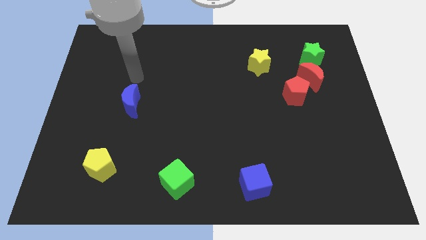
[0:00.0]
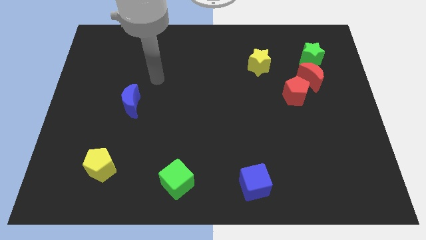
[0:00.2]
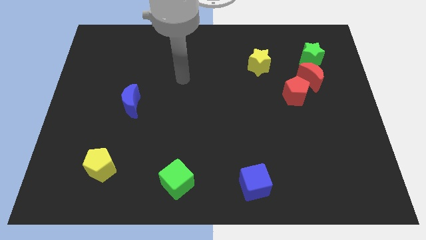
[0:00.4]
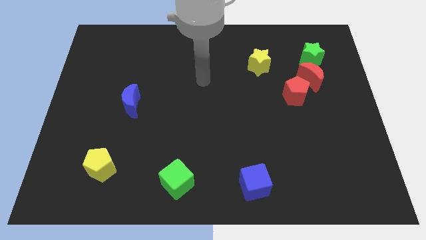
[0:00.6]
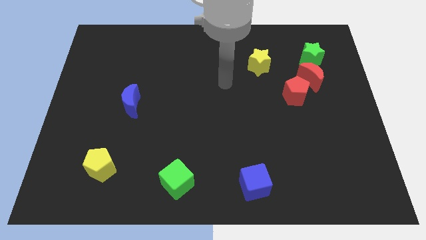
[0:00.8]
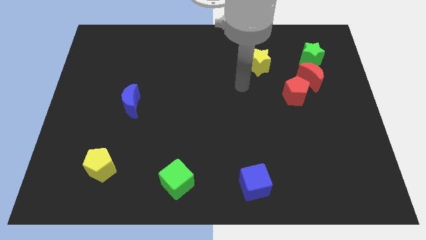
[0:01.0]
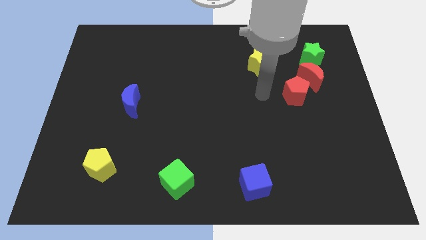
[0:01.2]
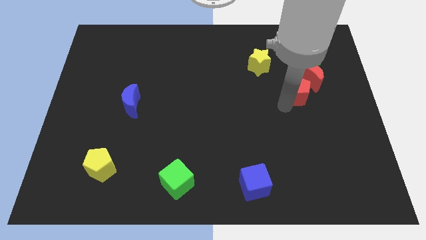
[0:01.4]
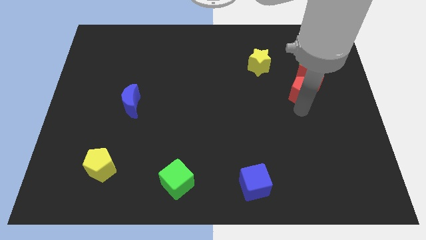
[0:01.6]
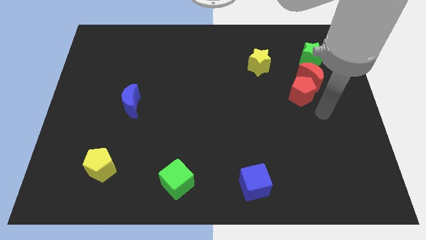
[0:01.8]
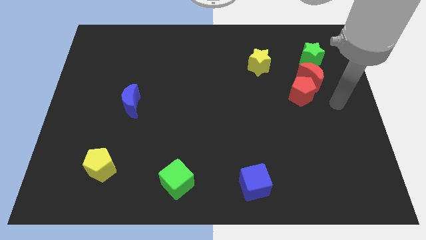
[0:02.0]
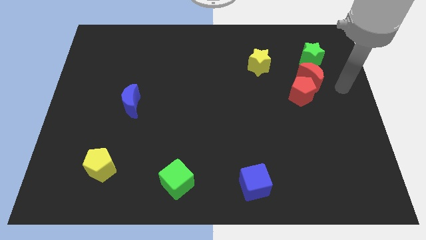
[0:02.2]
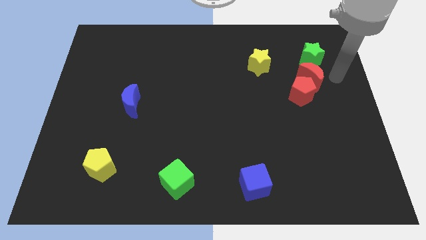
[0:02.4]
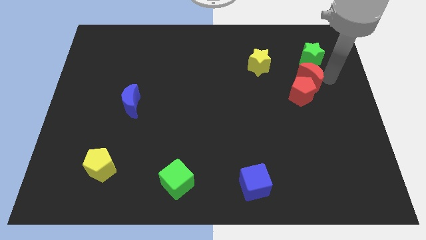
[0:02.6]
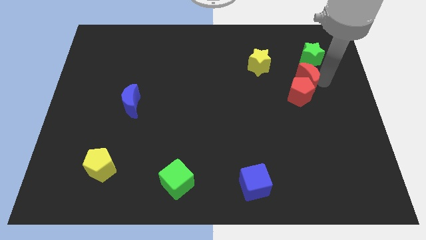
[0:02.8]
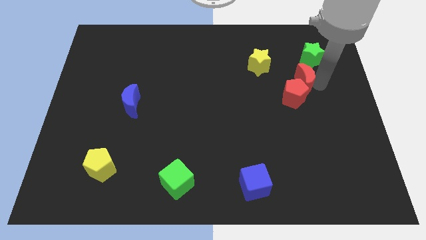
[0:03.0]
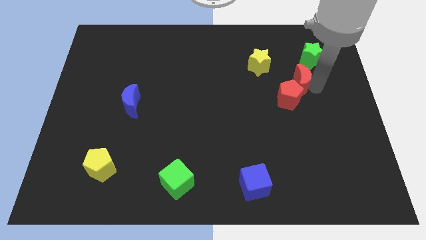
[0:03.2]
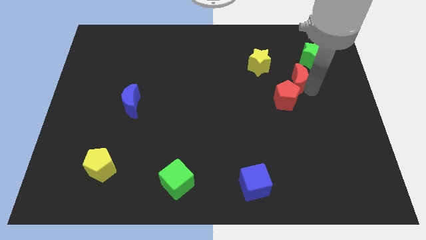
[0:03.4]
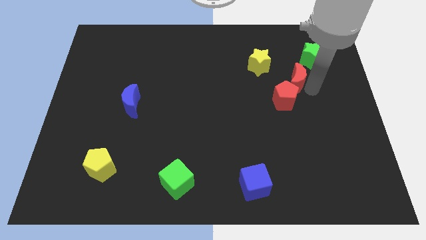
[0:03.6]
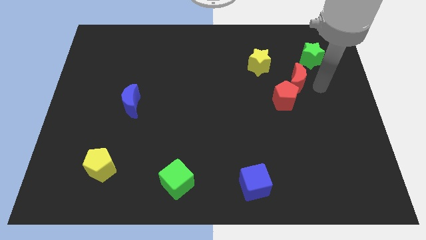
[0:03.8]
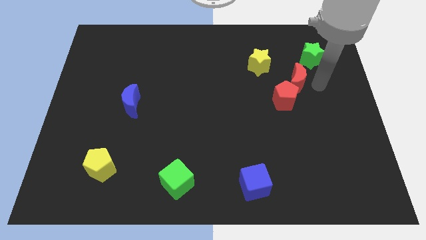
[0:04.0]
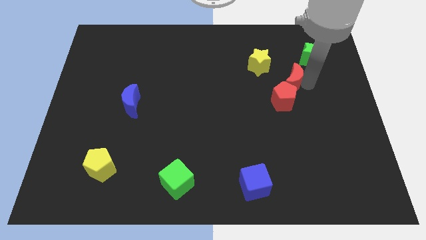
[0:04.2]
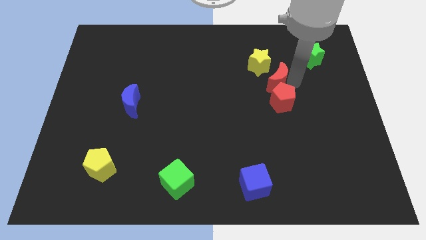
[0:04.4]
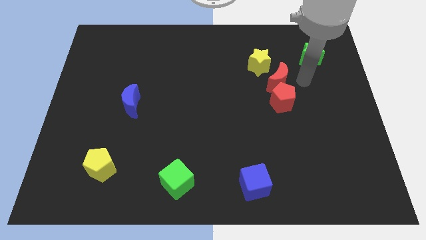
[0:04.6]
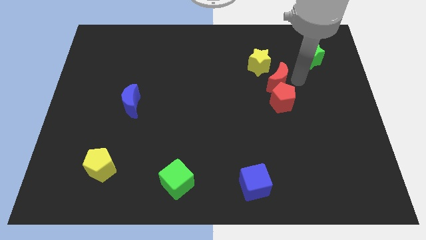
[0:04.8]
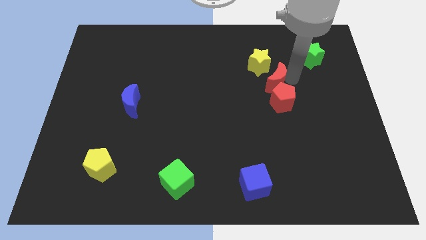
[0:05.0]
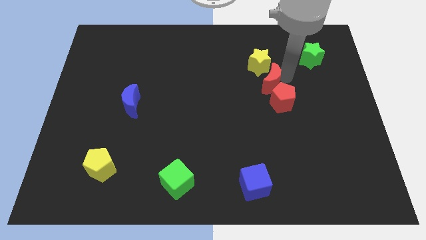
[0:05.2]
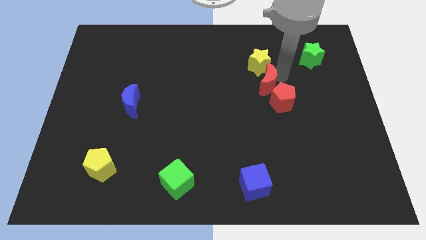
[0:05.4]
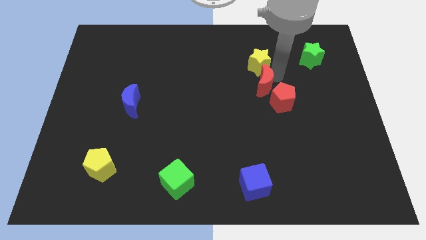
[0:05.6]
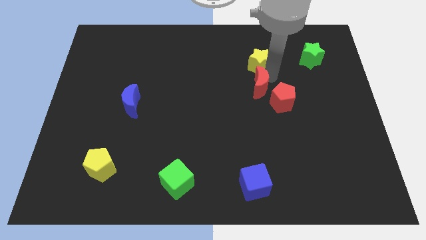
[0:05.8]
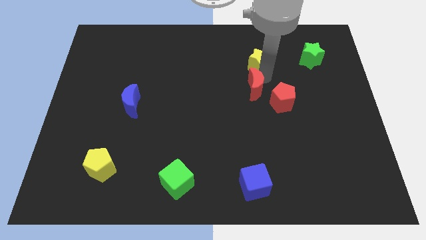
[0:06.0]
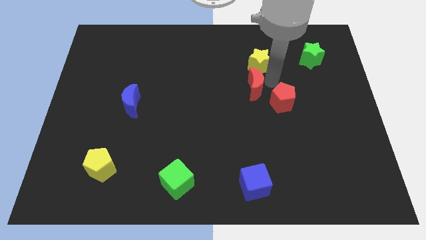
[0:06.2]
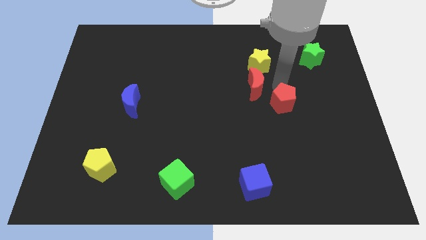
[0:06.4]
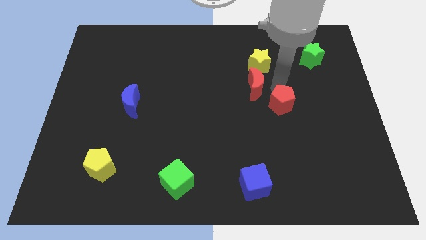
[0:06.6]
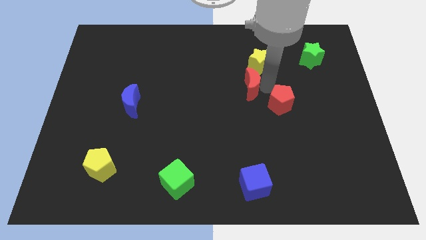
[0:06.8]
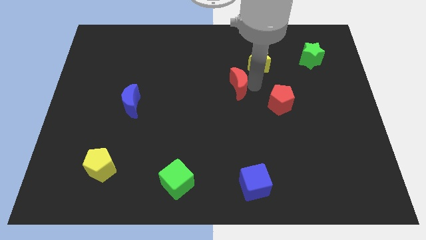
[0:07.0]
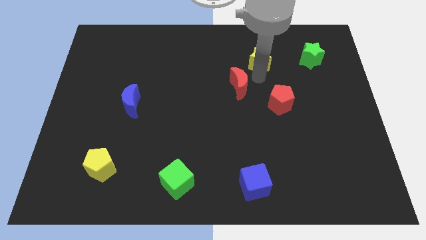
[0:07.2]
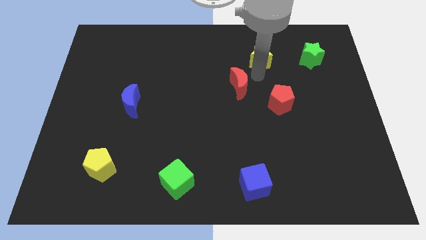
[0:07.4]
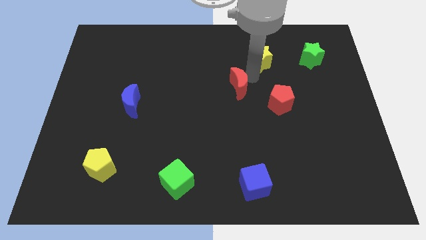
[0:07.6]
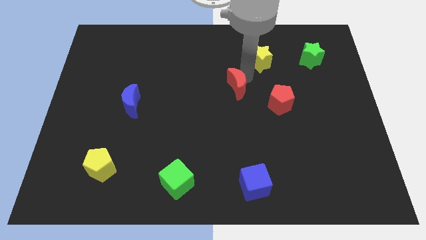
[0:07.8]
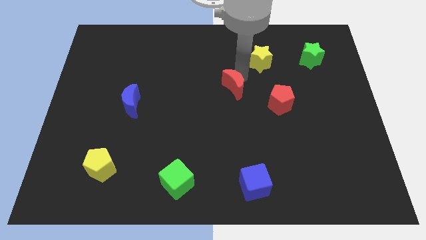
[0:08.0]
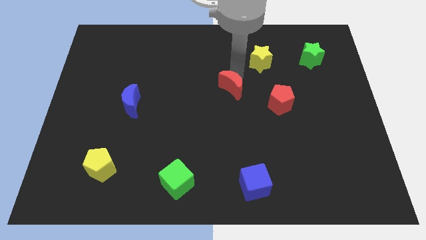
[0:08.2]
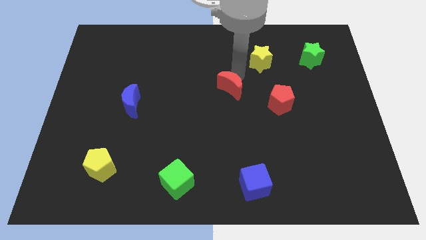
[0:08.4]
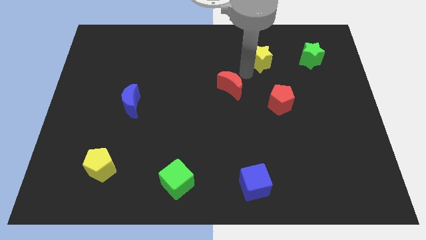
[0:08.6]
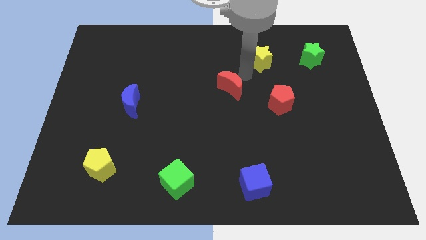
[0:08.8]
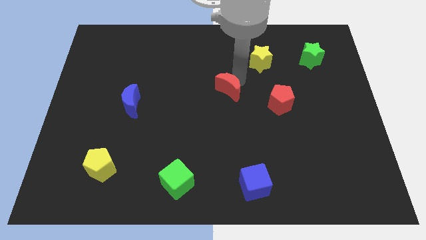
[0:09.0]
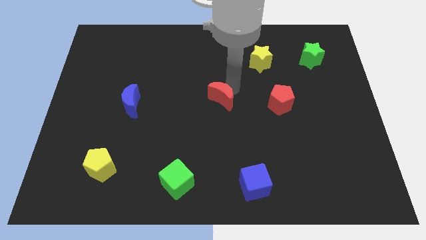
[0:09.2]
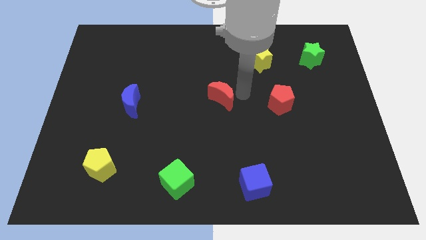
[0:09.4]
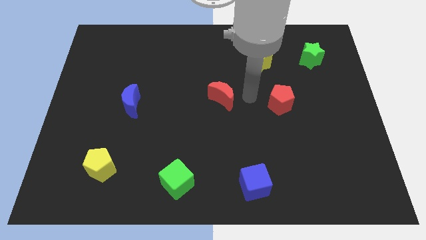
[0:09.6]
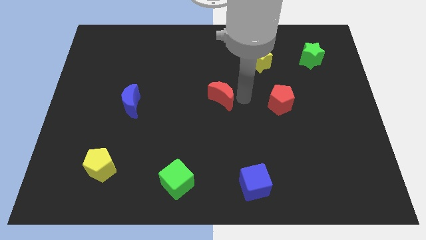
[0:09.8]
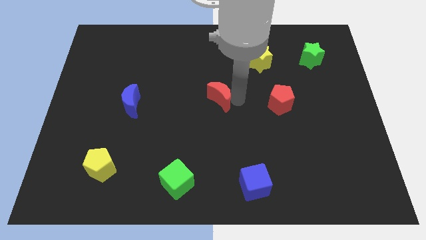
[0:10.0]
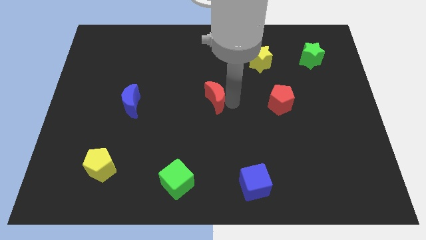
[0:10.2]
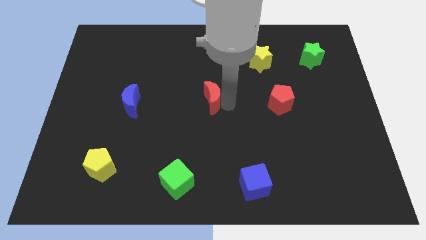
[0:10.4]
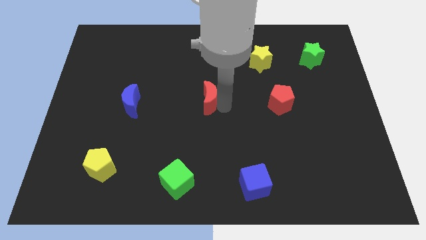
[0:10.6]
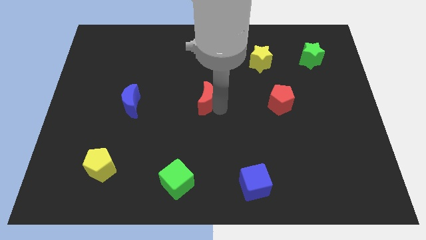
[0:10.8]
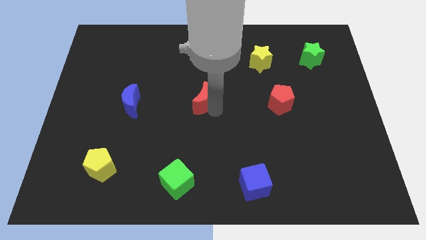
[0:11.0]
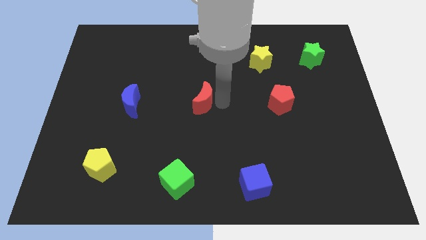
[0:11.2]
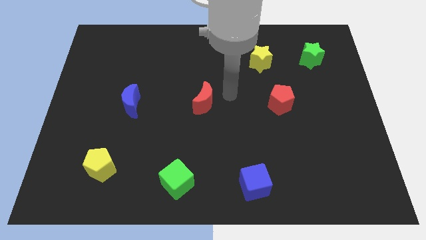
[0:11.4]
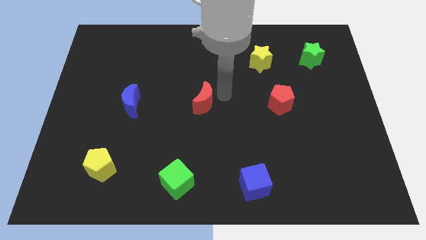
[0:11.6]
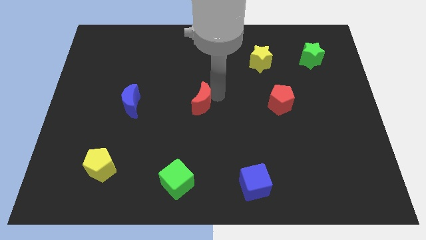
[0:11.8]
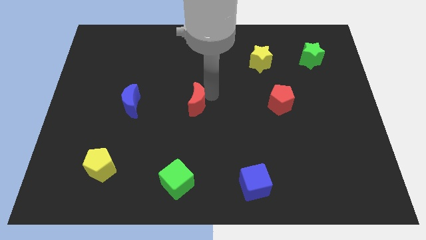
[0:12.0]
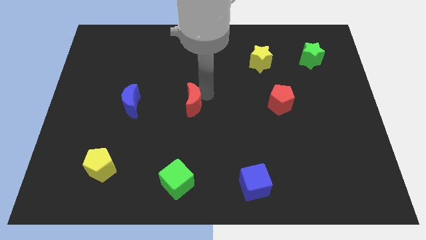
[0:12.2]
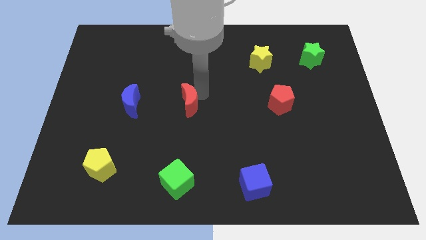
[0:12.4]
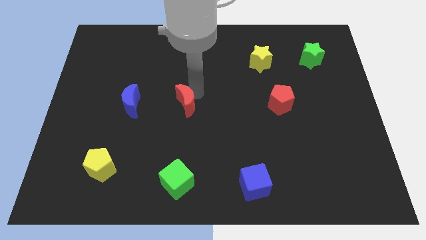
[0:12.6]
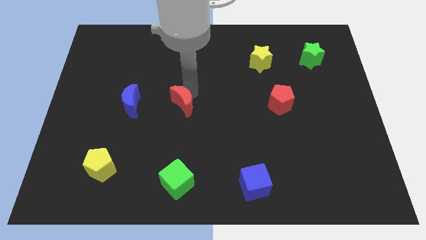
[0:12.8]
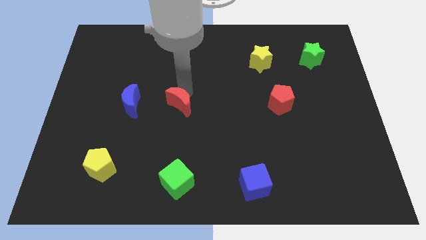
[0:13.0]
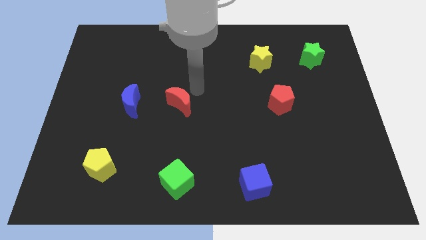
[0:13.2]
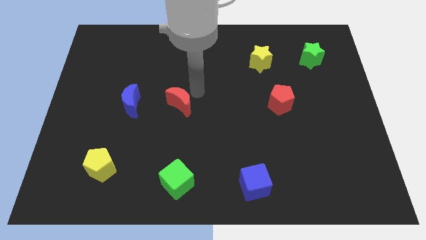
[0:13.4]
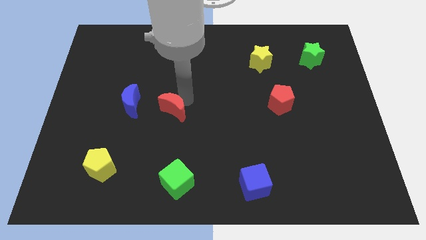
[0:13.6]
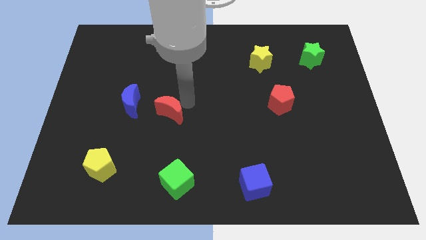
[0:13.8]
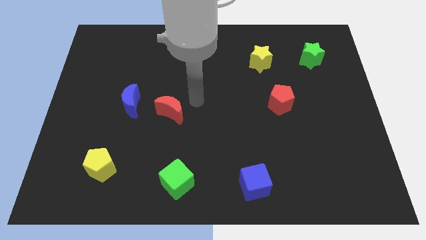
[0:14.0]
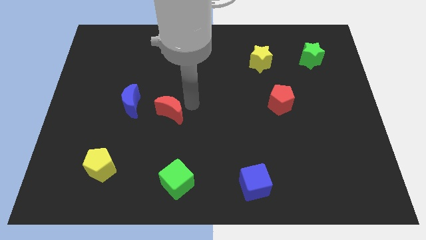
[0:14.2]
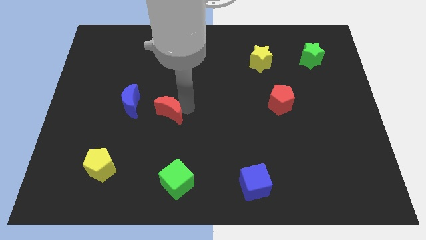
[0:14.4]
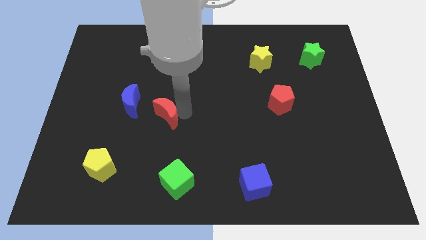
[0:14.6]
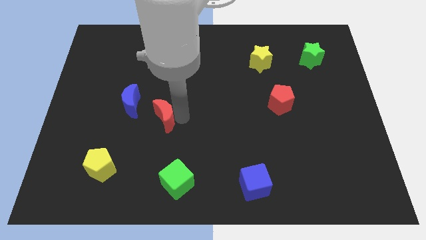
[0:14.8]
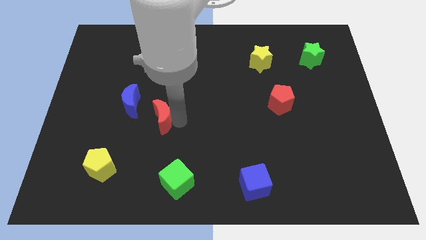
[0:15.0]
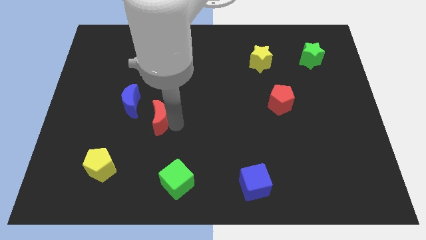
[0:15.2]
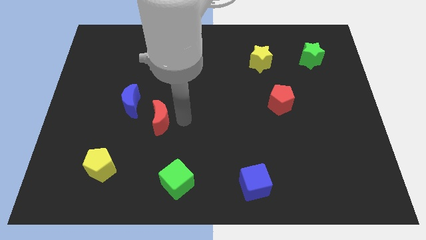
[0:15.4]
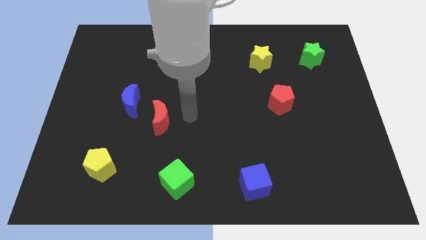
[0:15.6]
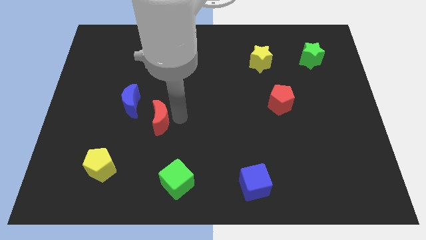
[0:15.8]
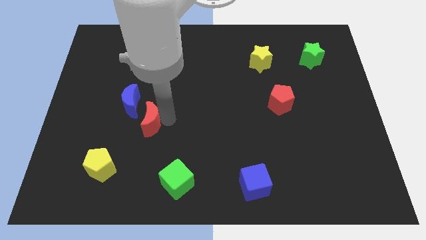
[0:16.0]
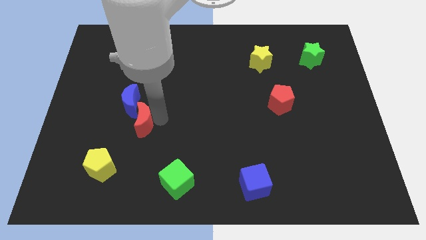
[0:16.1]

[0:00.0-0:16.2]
slide the red moon to the bottom side of the blue moon
